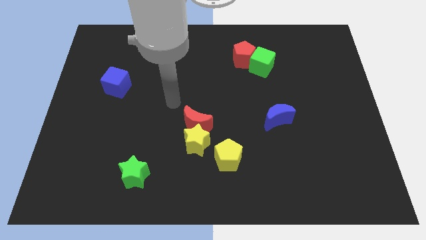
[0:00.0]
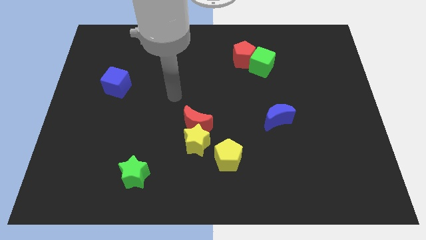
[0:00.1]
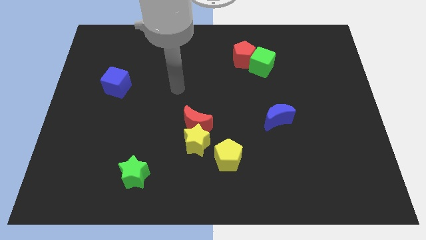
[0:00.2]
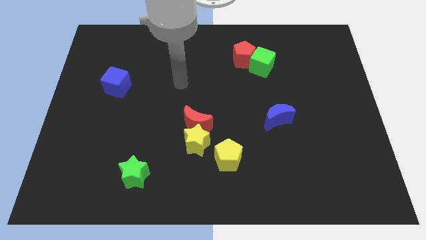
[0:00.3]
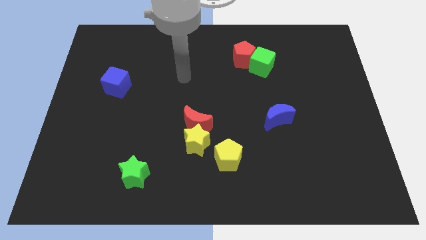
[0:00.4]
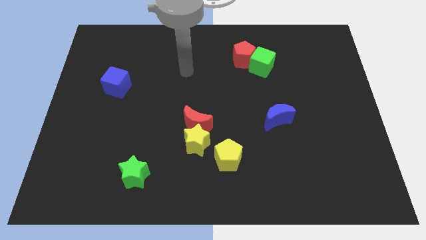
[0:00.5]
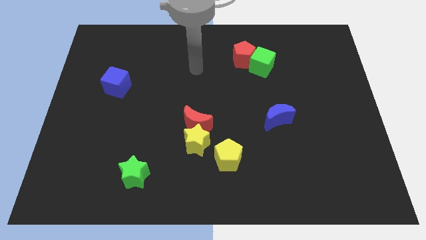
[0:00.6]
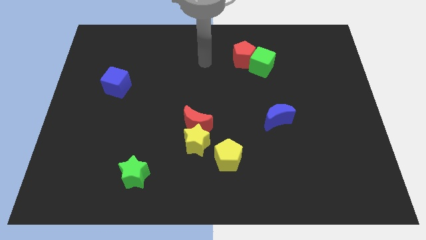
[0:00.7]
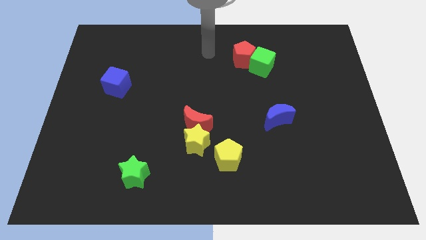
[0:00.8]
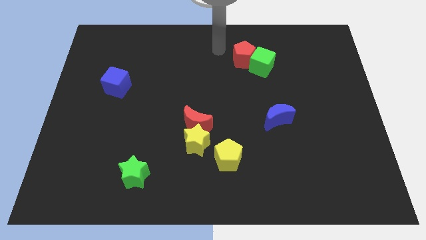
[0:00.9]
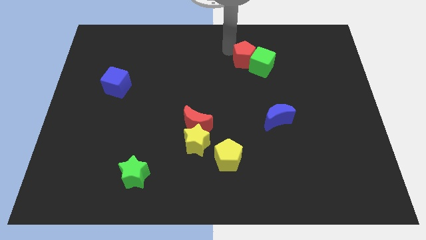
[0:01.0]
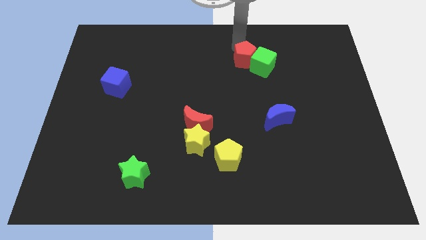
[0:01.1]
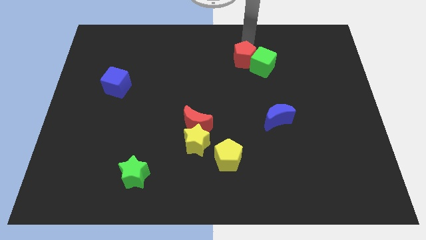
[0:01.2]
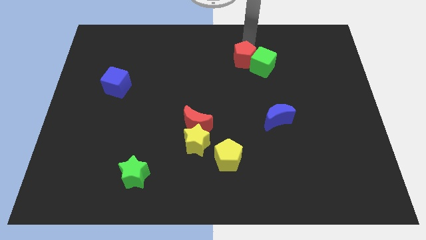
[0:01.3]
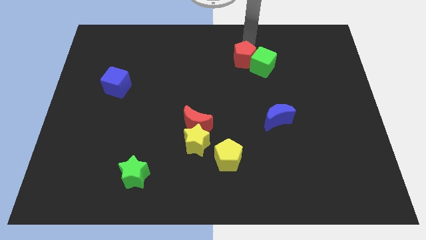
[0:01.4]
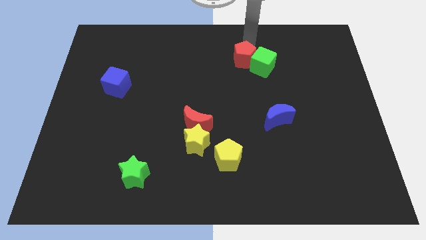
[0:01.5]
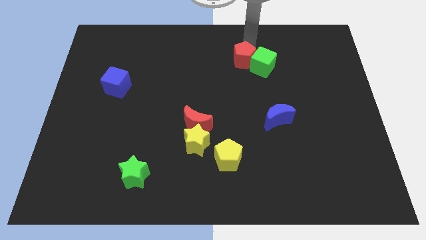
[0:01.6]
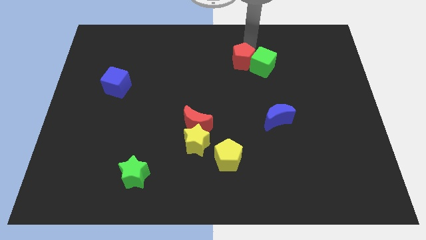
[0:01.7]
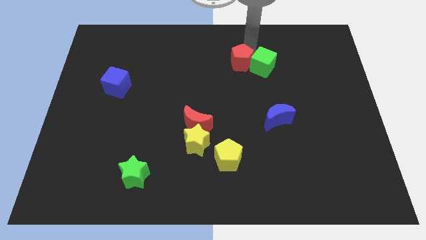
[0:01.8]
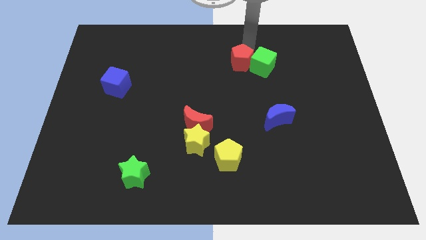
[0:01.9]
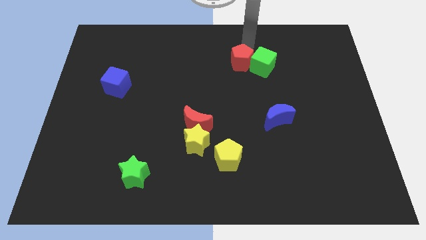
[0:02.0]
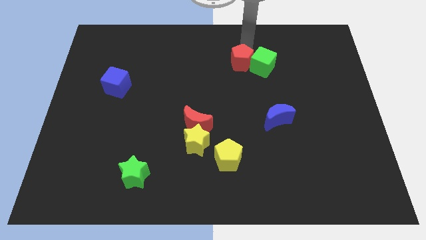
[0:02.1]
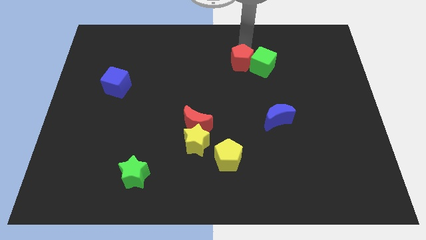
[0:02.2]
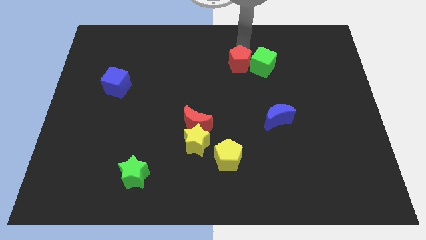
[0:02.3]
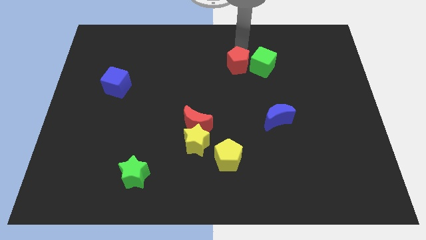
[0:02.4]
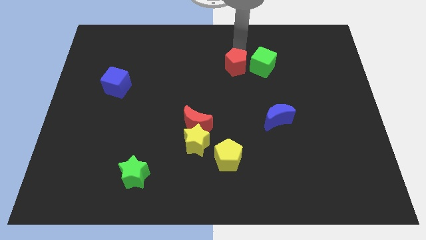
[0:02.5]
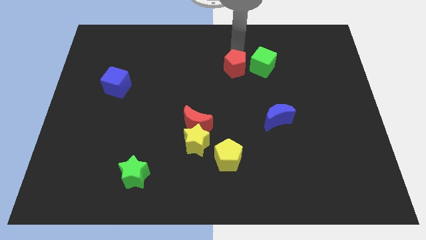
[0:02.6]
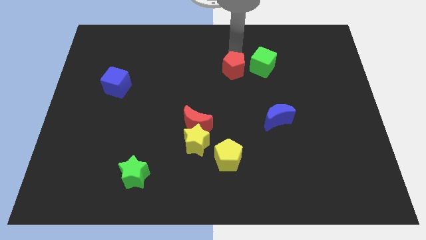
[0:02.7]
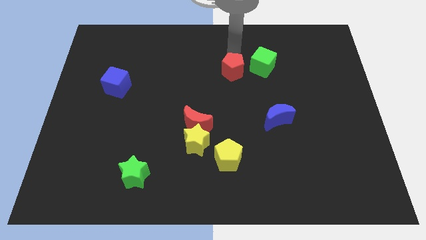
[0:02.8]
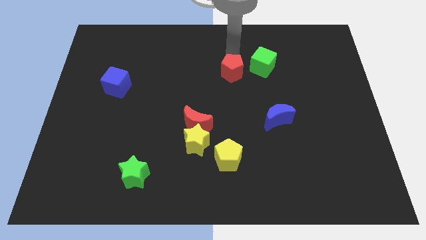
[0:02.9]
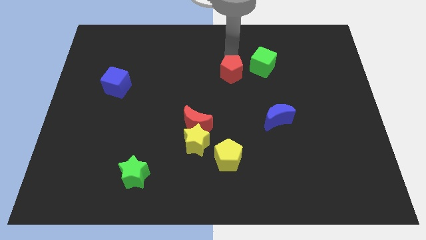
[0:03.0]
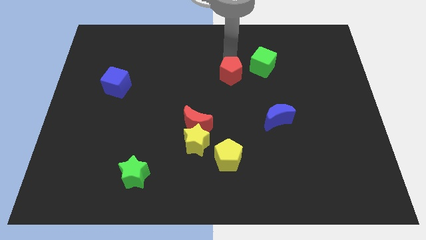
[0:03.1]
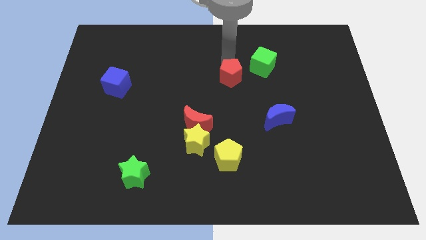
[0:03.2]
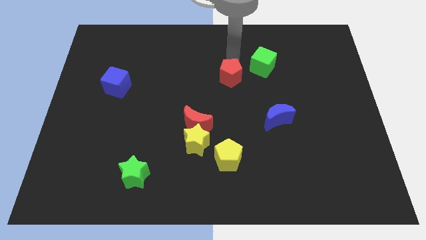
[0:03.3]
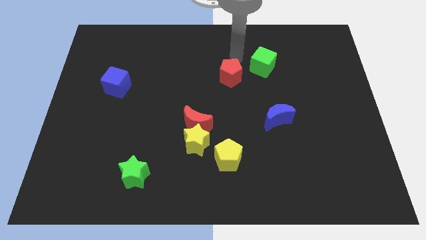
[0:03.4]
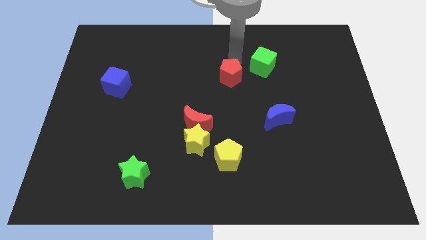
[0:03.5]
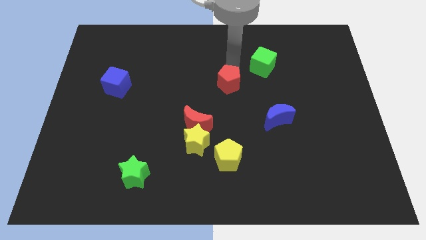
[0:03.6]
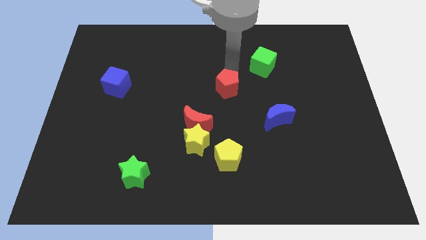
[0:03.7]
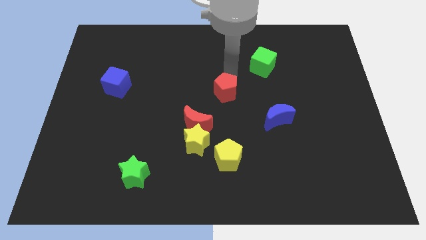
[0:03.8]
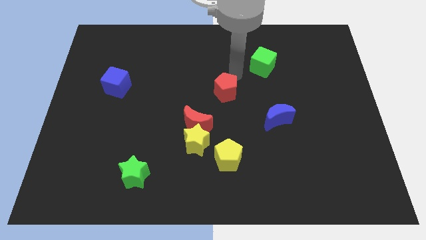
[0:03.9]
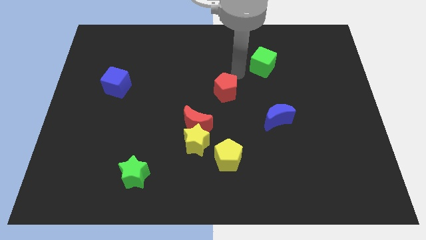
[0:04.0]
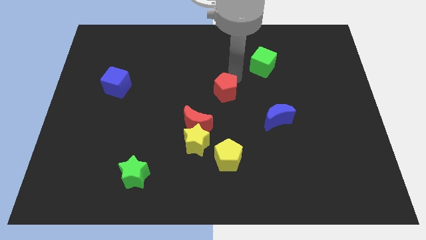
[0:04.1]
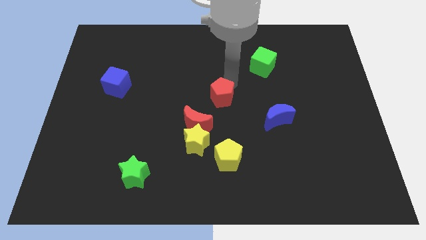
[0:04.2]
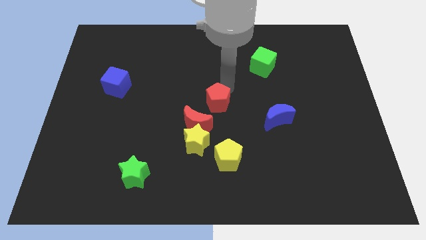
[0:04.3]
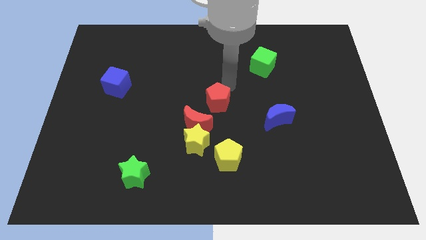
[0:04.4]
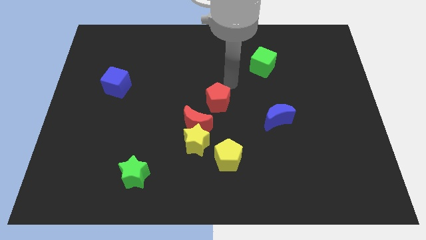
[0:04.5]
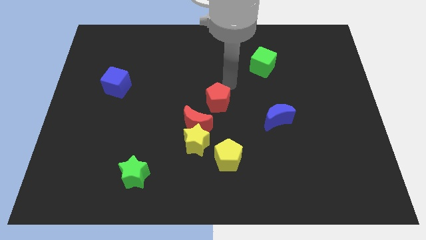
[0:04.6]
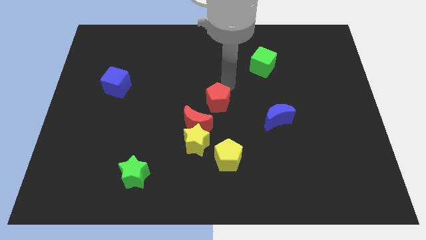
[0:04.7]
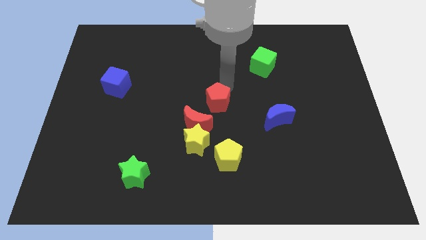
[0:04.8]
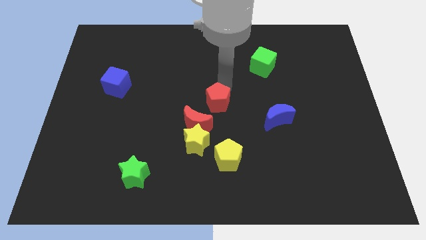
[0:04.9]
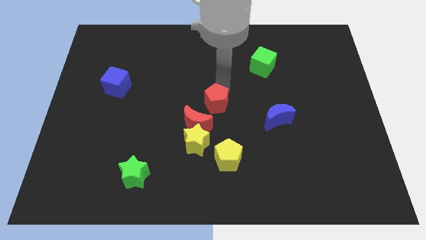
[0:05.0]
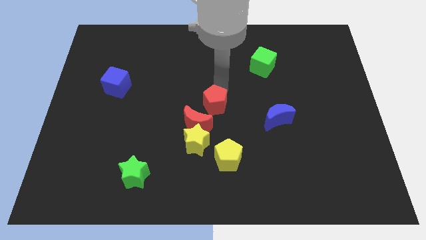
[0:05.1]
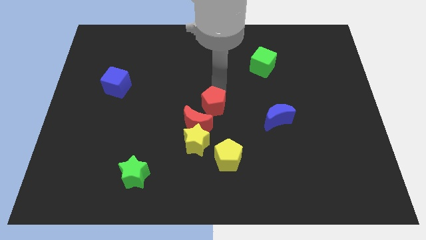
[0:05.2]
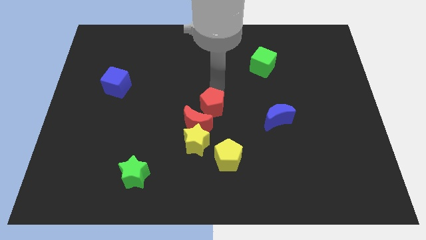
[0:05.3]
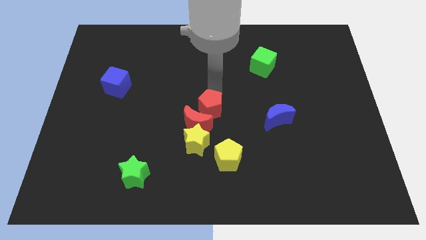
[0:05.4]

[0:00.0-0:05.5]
move the red pentagon close to the red moon

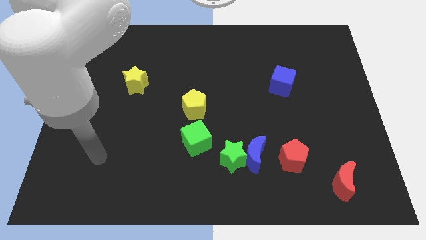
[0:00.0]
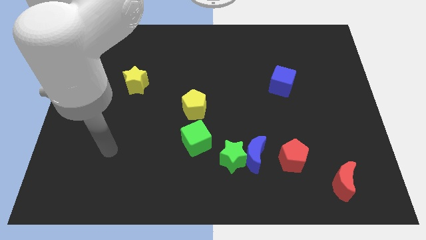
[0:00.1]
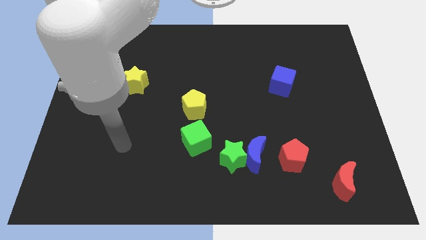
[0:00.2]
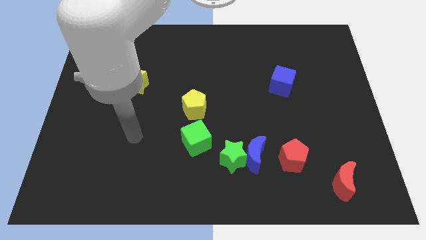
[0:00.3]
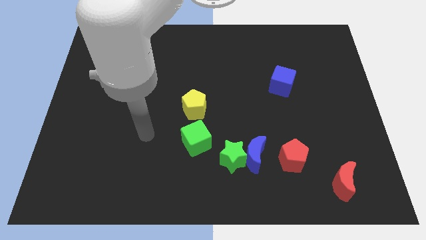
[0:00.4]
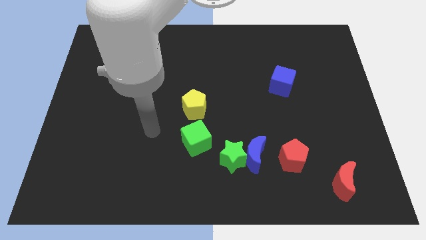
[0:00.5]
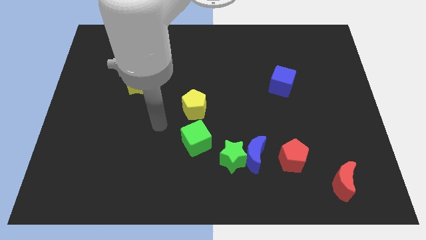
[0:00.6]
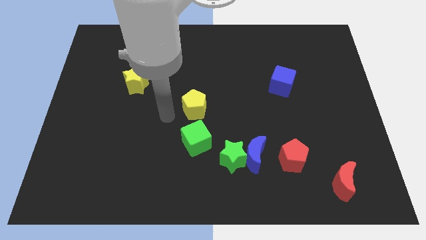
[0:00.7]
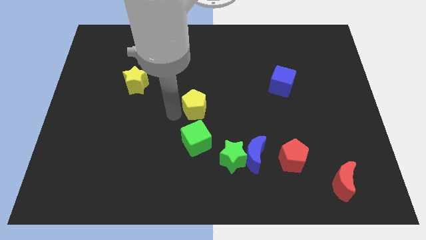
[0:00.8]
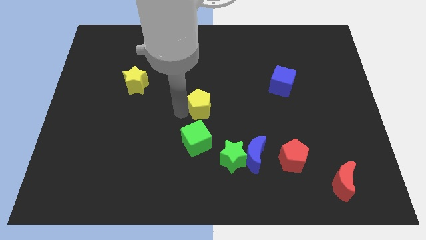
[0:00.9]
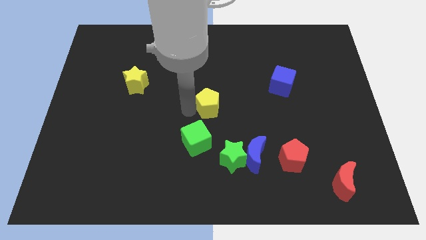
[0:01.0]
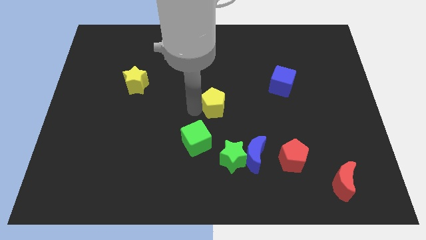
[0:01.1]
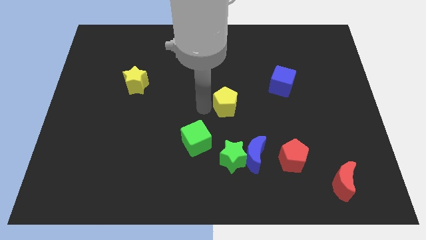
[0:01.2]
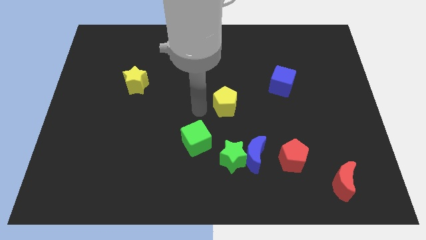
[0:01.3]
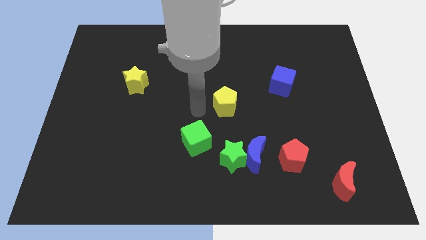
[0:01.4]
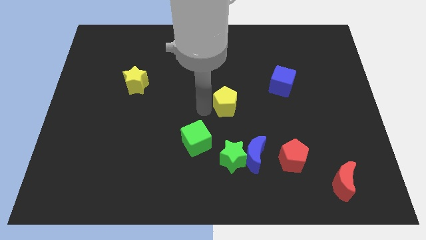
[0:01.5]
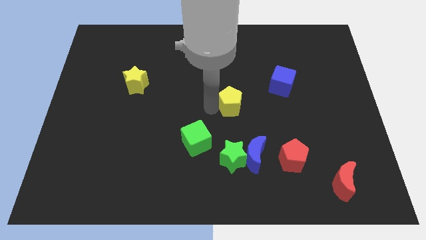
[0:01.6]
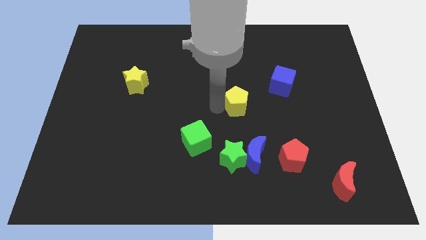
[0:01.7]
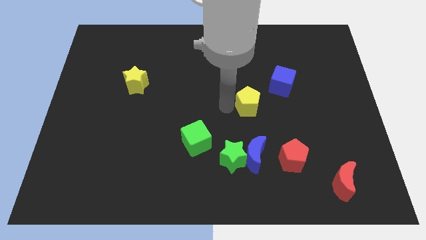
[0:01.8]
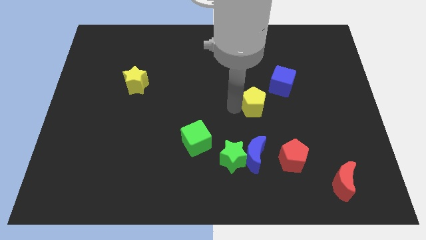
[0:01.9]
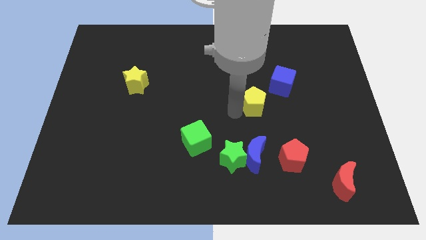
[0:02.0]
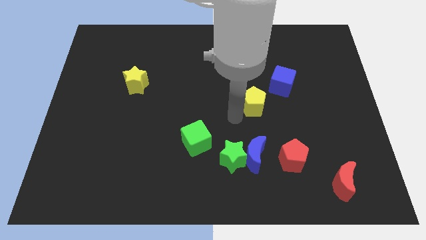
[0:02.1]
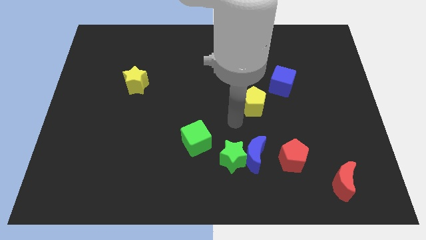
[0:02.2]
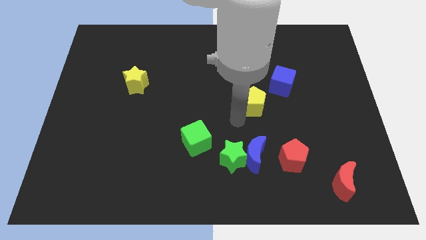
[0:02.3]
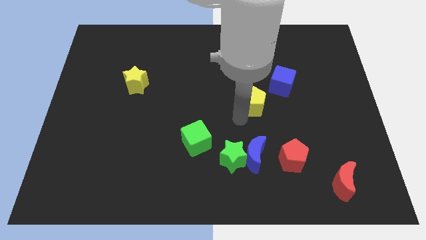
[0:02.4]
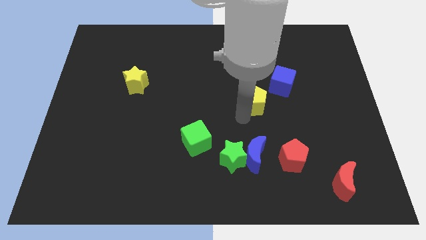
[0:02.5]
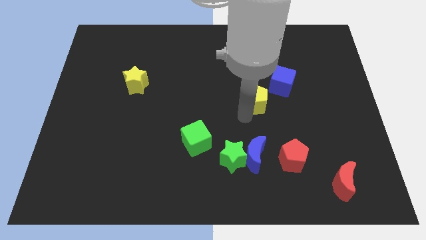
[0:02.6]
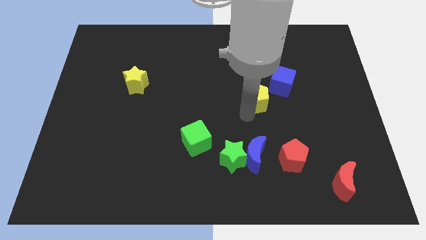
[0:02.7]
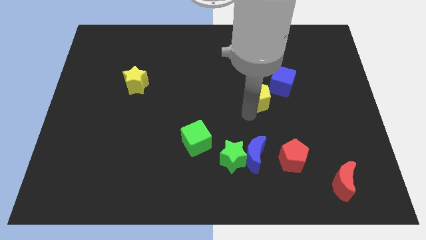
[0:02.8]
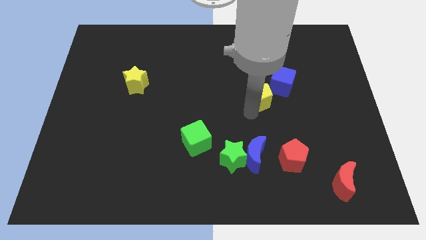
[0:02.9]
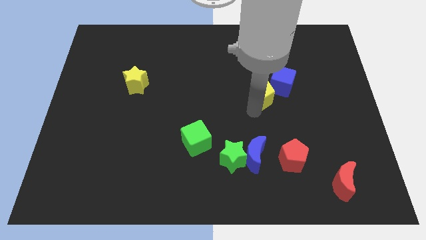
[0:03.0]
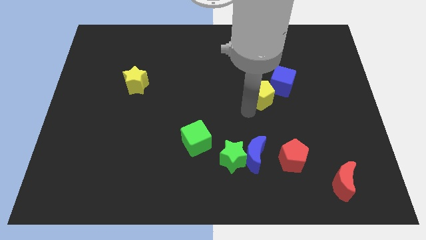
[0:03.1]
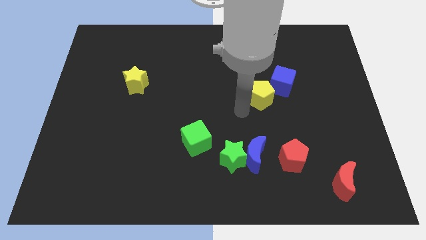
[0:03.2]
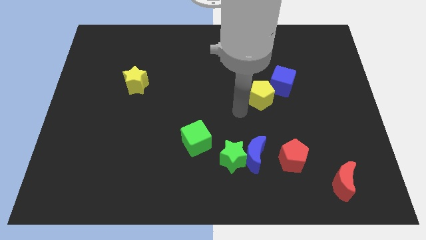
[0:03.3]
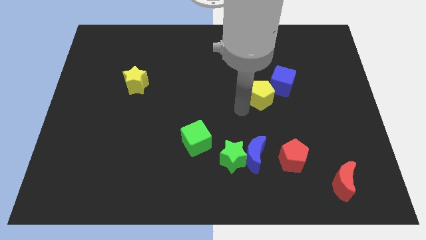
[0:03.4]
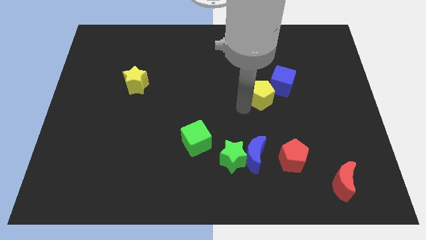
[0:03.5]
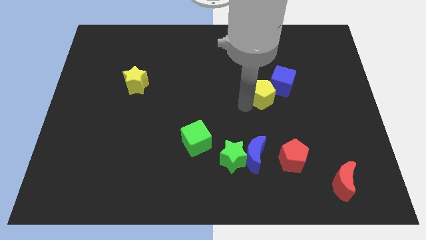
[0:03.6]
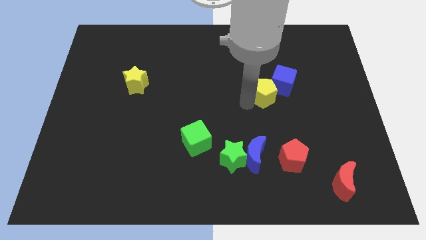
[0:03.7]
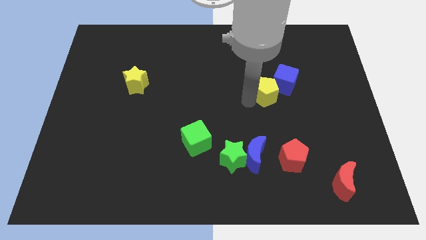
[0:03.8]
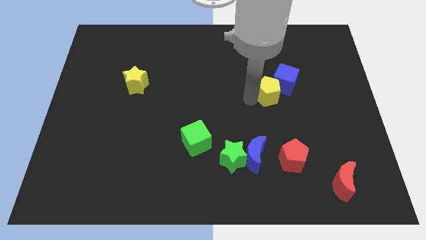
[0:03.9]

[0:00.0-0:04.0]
slide the yellow pentagon towards the blue cube
